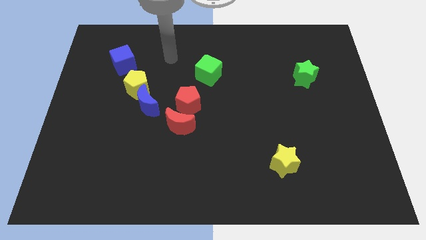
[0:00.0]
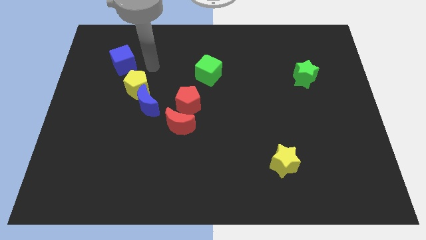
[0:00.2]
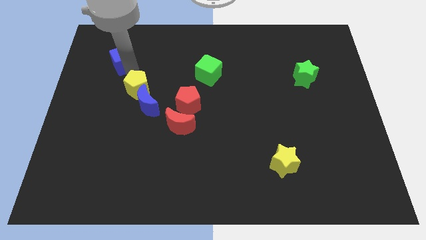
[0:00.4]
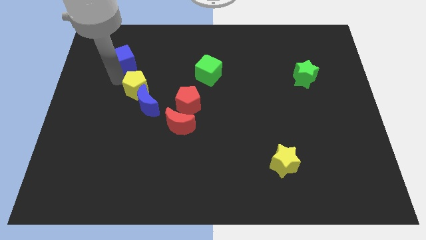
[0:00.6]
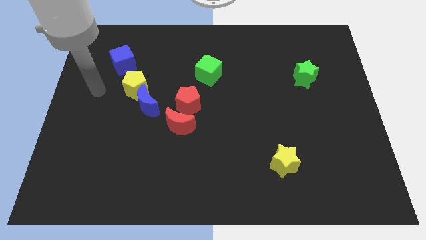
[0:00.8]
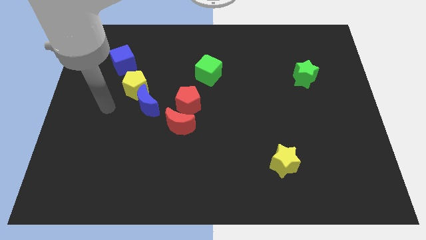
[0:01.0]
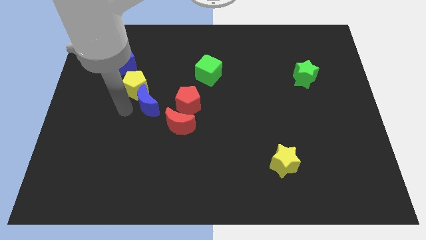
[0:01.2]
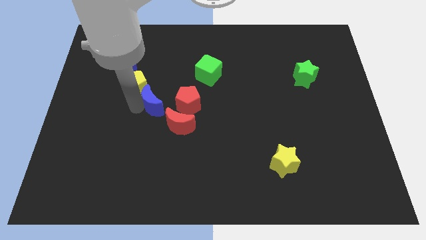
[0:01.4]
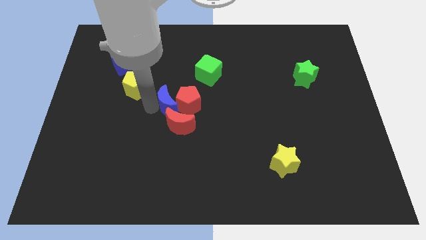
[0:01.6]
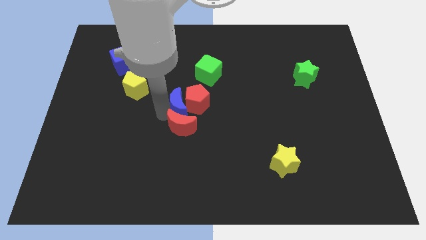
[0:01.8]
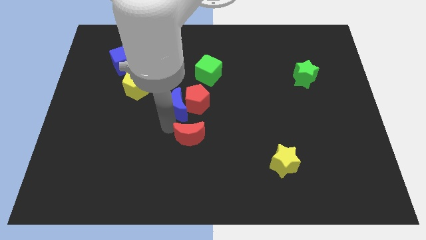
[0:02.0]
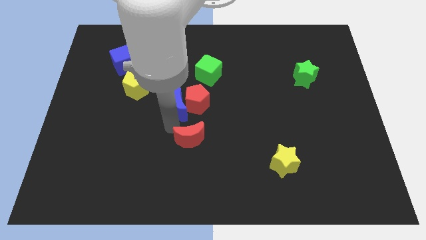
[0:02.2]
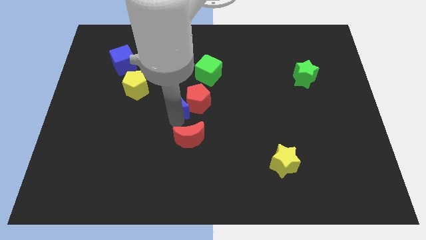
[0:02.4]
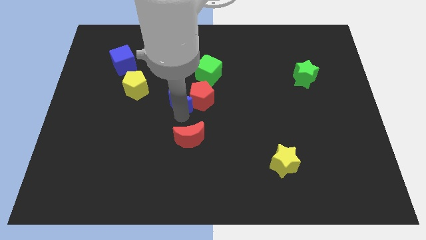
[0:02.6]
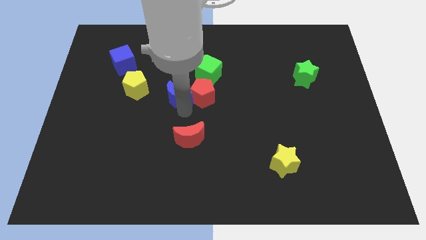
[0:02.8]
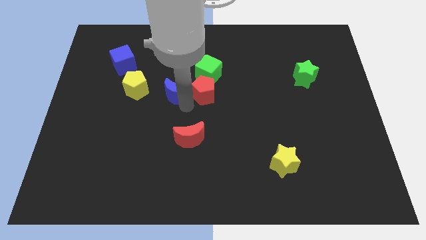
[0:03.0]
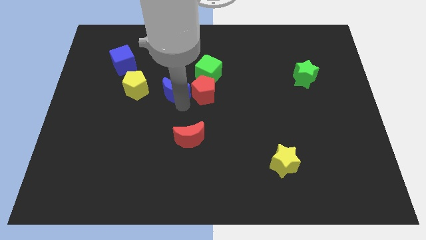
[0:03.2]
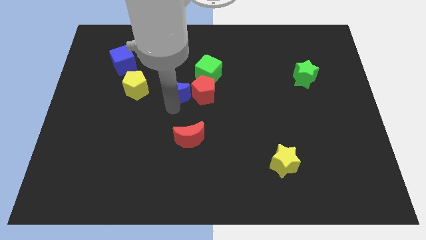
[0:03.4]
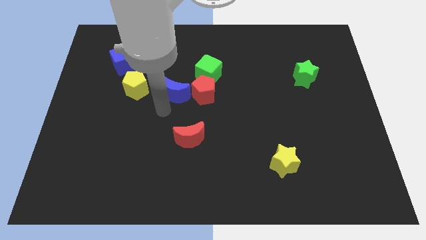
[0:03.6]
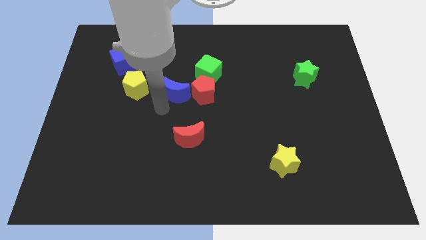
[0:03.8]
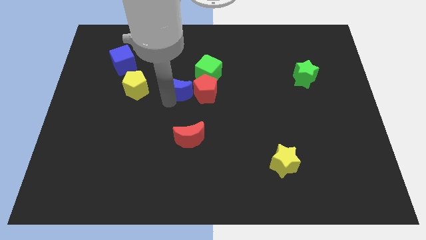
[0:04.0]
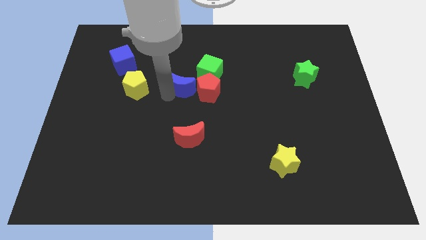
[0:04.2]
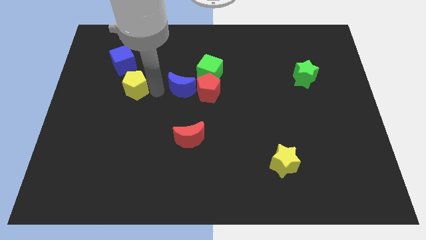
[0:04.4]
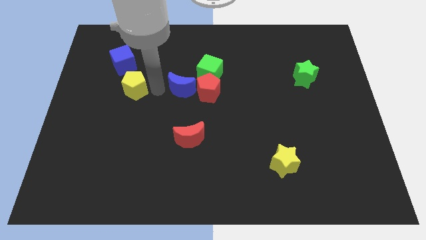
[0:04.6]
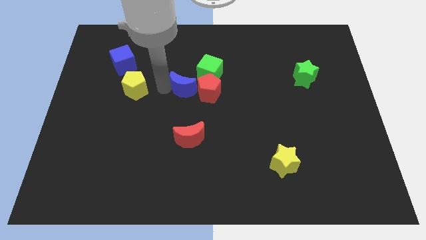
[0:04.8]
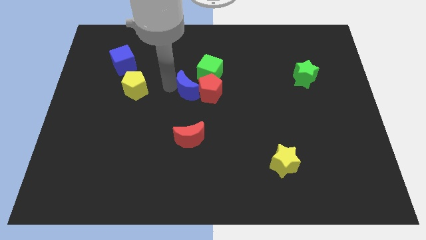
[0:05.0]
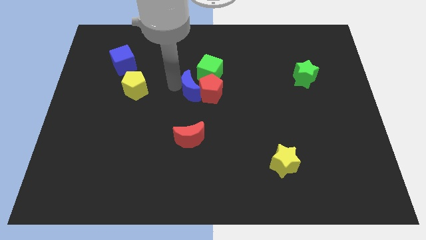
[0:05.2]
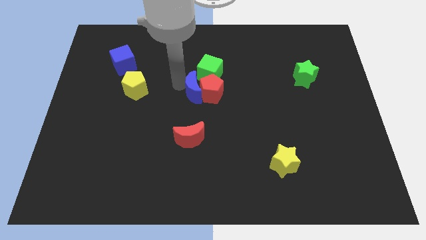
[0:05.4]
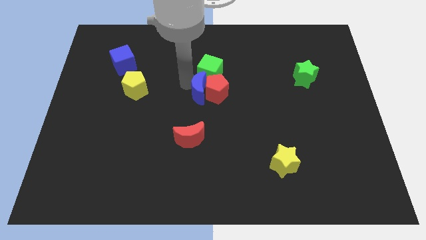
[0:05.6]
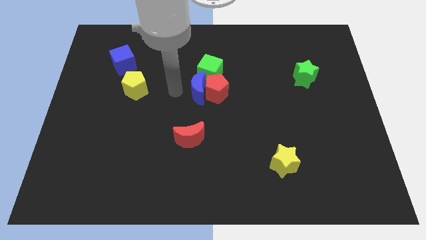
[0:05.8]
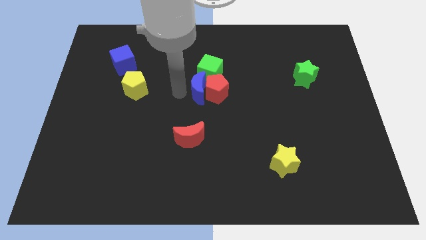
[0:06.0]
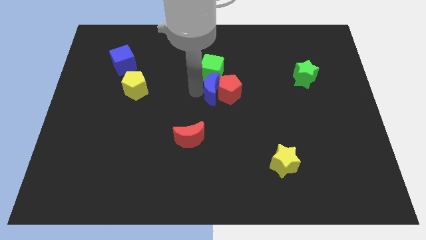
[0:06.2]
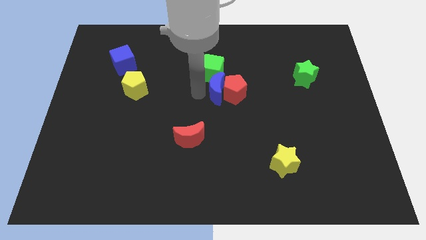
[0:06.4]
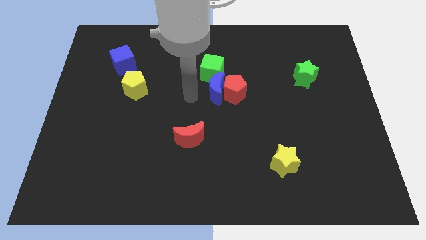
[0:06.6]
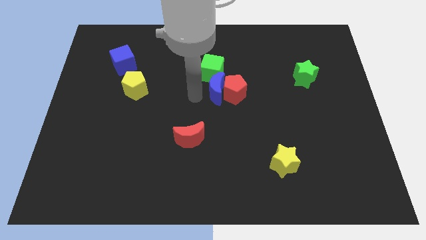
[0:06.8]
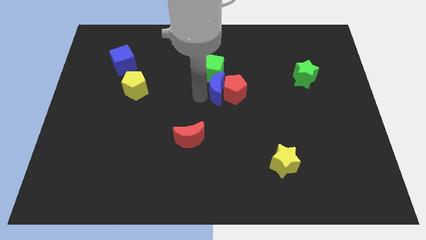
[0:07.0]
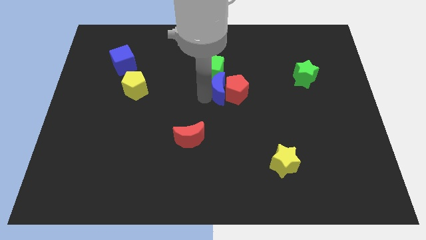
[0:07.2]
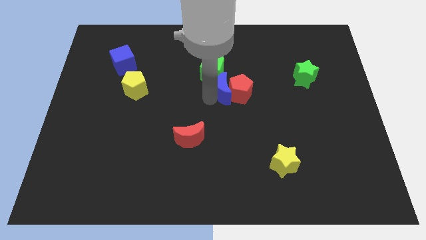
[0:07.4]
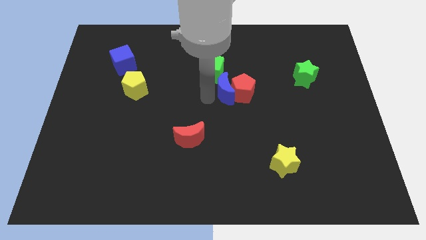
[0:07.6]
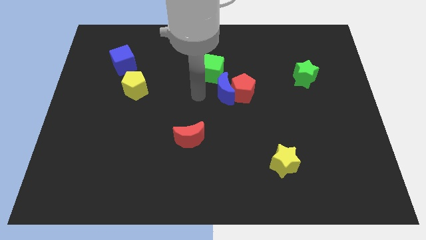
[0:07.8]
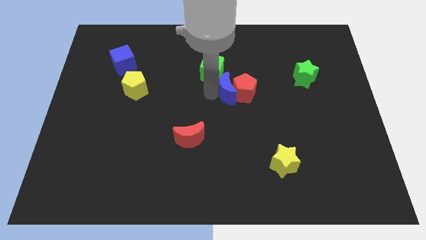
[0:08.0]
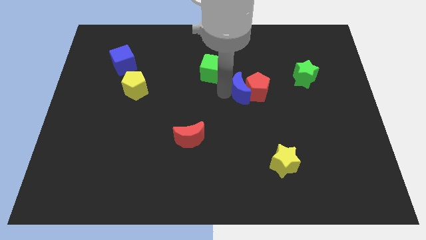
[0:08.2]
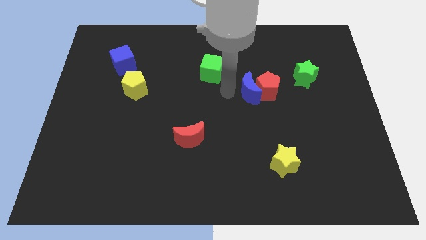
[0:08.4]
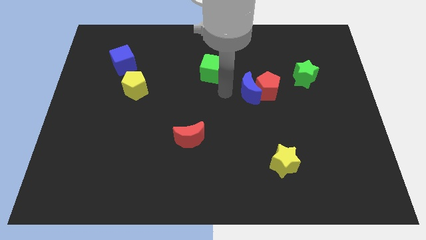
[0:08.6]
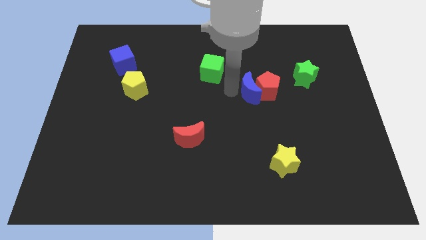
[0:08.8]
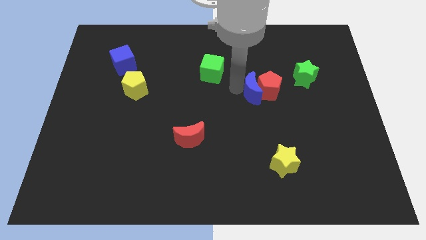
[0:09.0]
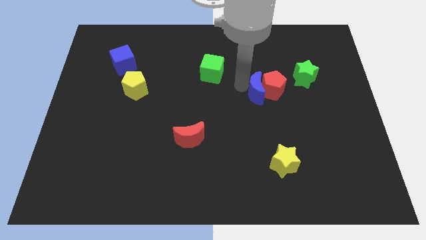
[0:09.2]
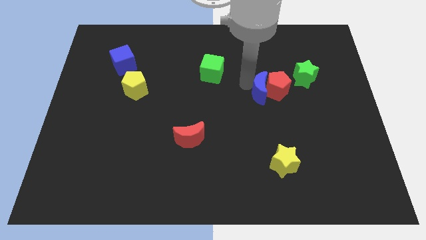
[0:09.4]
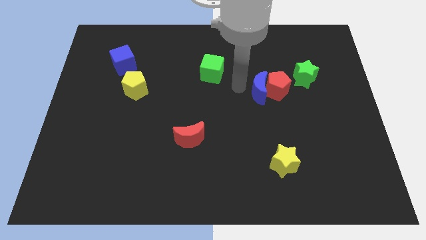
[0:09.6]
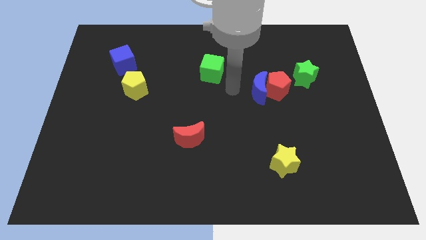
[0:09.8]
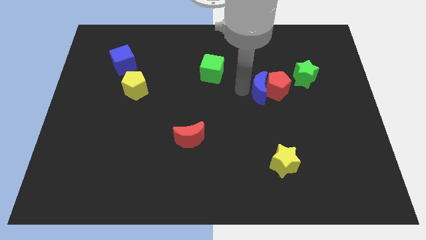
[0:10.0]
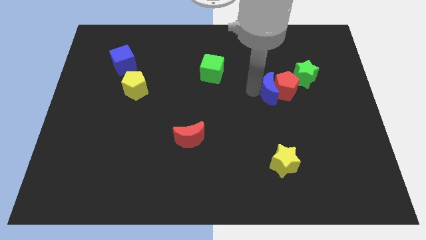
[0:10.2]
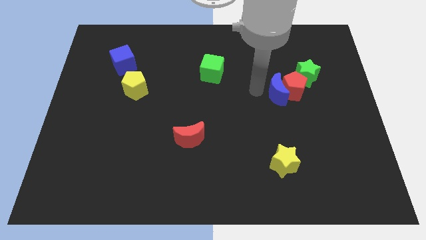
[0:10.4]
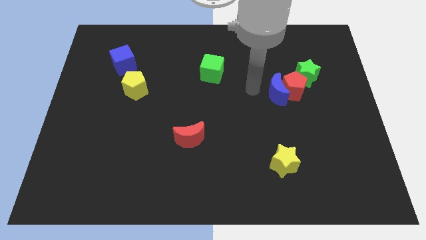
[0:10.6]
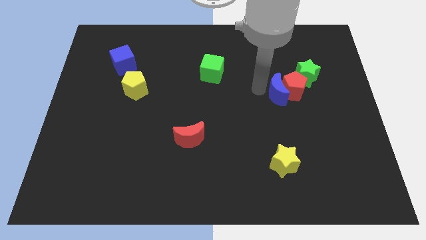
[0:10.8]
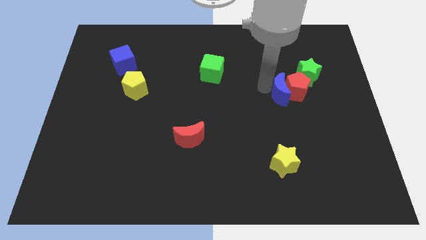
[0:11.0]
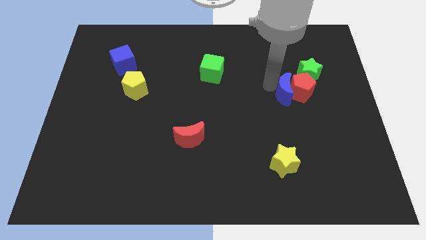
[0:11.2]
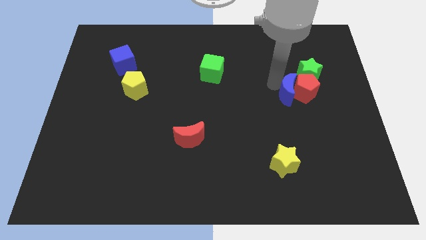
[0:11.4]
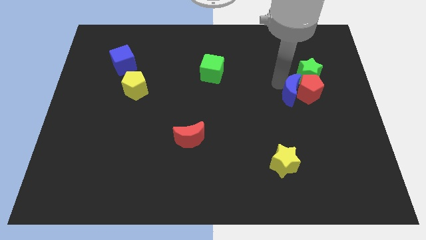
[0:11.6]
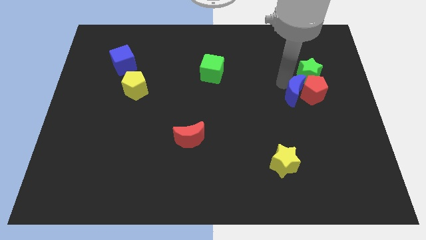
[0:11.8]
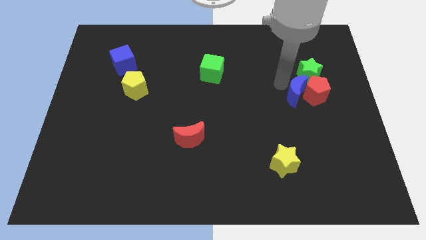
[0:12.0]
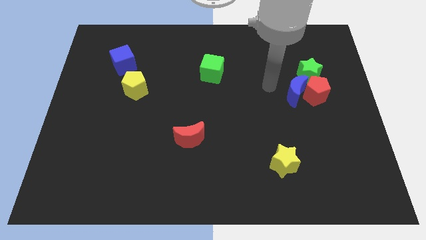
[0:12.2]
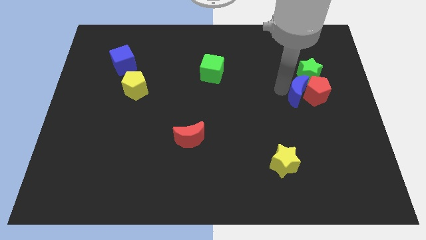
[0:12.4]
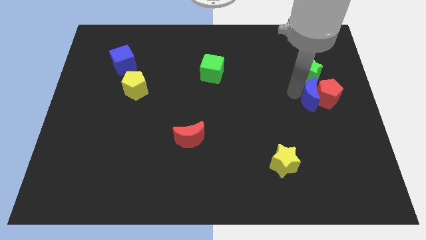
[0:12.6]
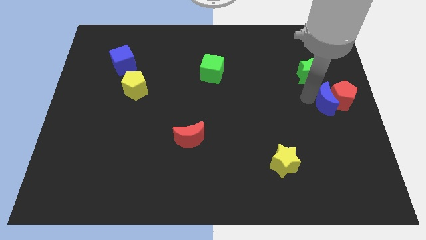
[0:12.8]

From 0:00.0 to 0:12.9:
move the blue moon to the right side of the board

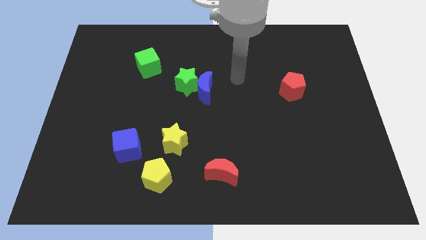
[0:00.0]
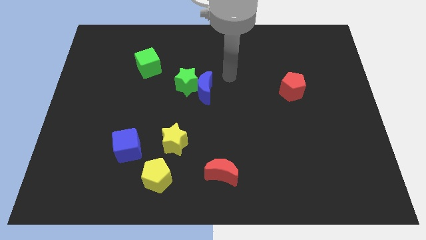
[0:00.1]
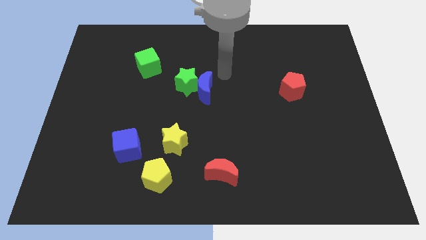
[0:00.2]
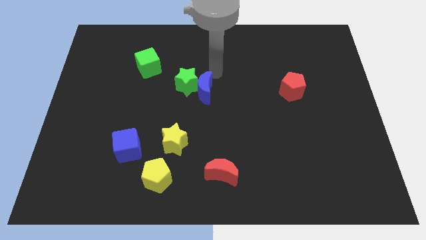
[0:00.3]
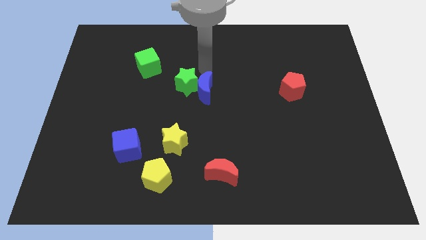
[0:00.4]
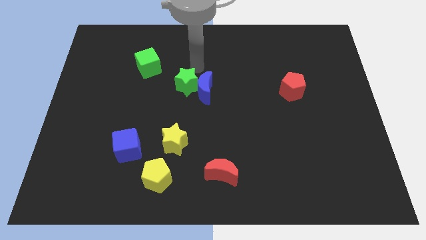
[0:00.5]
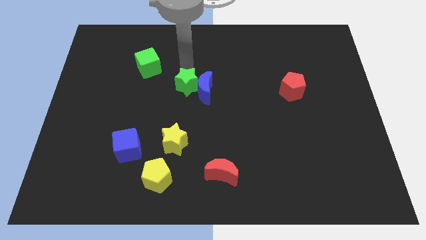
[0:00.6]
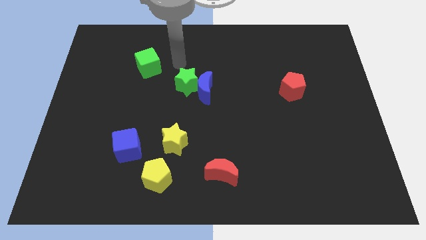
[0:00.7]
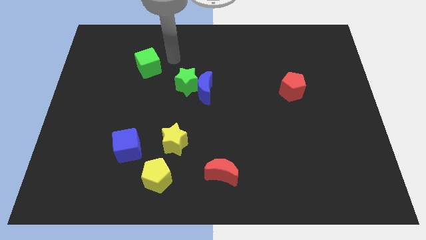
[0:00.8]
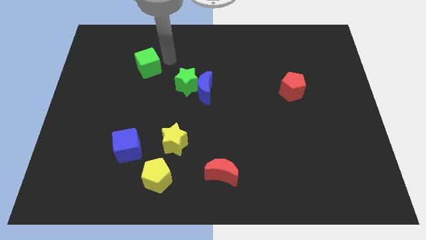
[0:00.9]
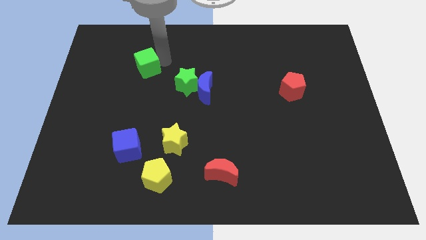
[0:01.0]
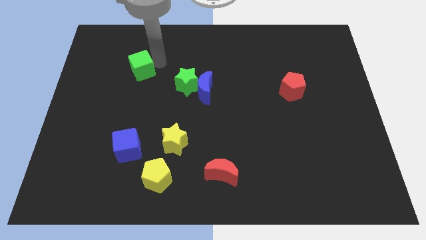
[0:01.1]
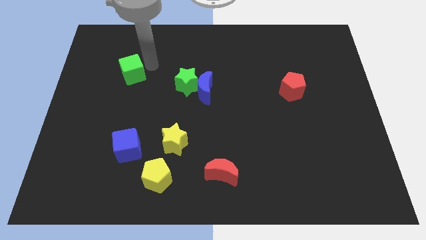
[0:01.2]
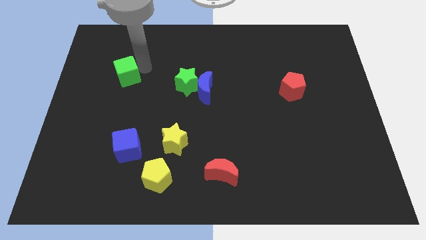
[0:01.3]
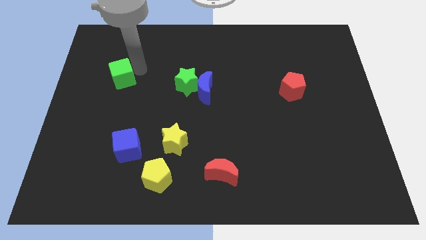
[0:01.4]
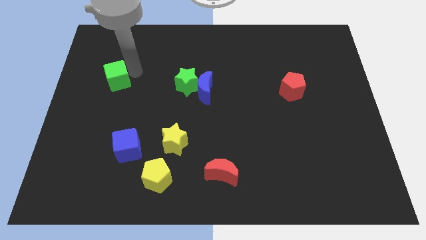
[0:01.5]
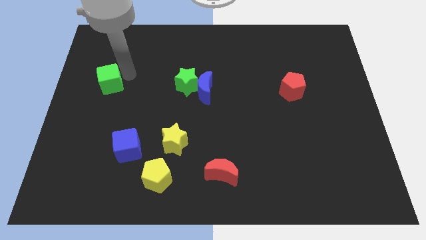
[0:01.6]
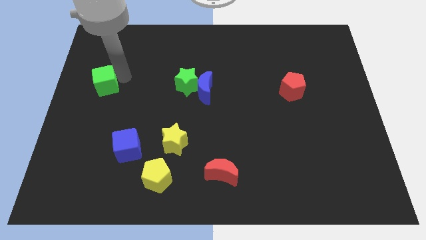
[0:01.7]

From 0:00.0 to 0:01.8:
push the green cube to the center left
